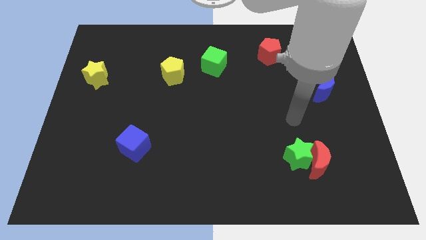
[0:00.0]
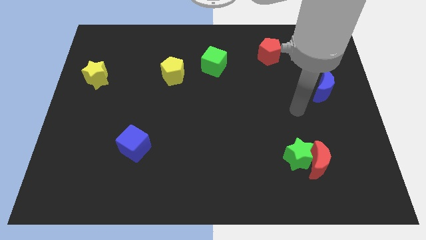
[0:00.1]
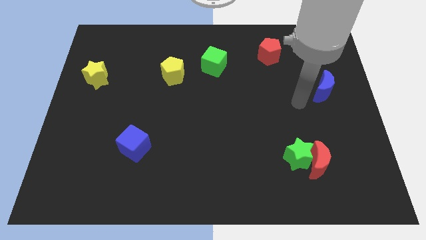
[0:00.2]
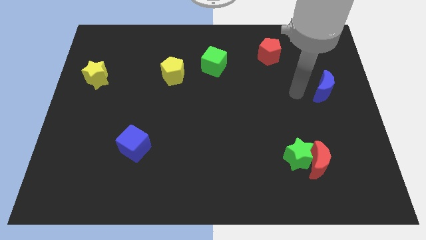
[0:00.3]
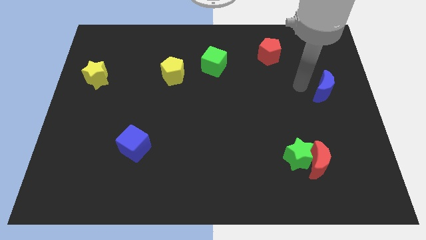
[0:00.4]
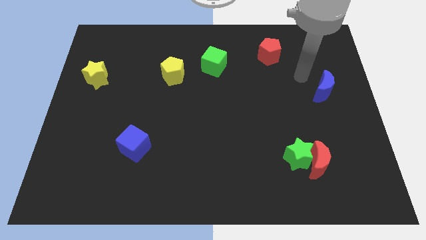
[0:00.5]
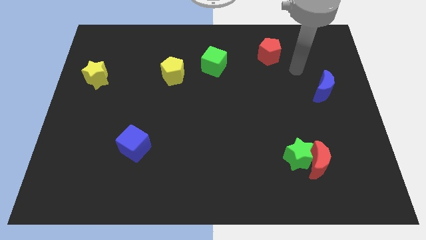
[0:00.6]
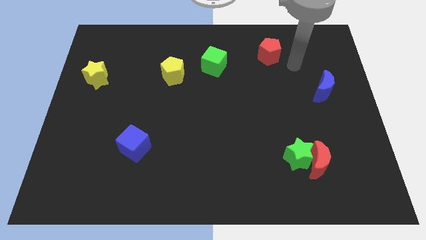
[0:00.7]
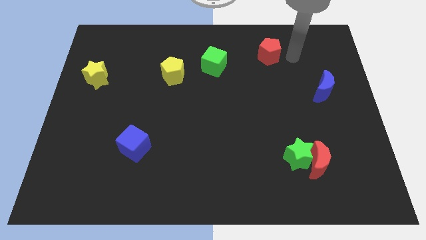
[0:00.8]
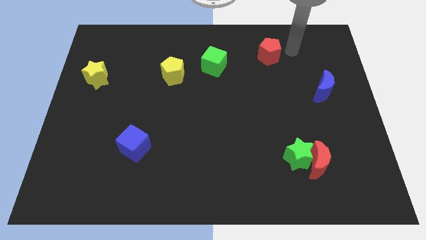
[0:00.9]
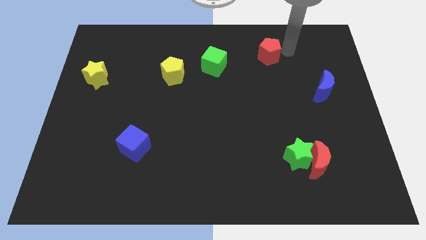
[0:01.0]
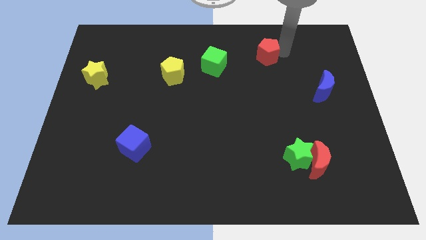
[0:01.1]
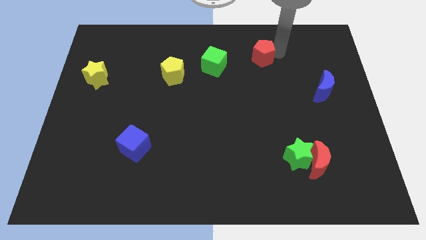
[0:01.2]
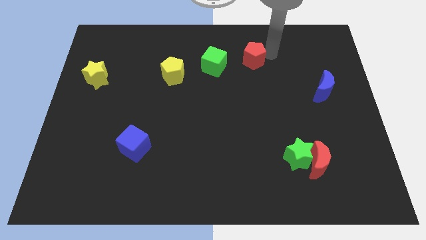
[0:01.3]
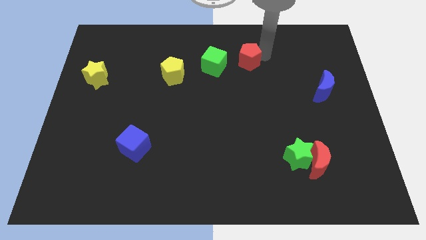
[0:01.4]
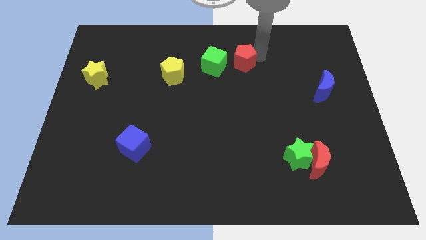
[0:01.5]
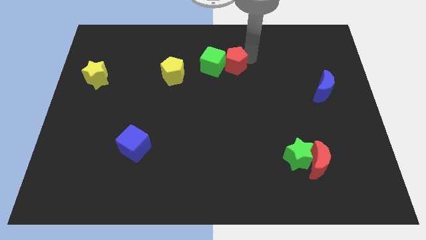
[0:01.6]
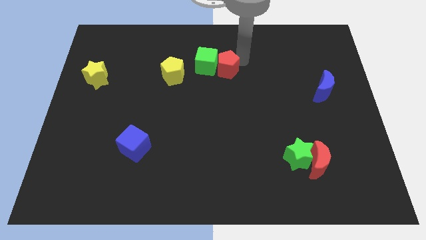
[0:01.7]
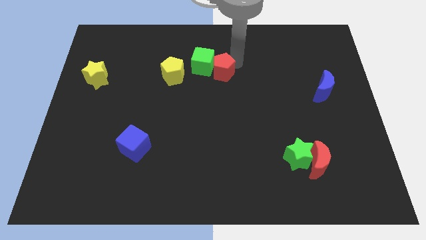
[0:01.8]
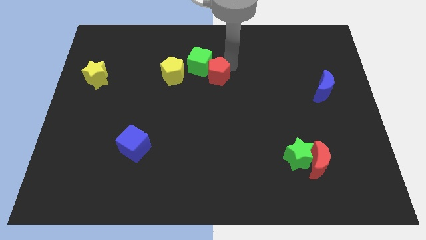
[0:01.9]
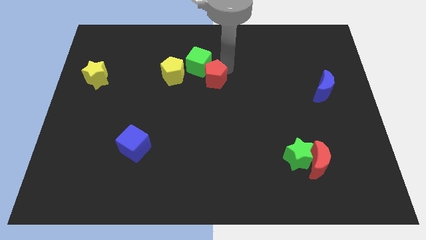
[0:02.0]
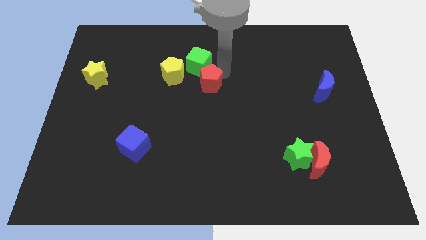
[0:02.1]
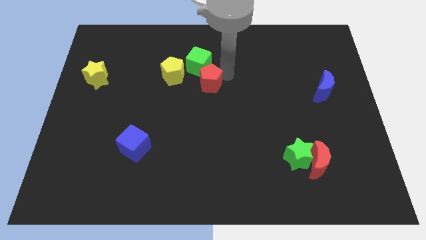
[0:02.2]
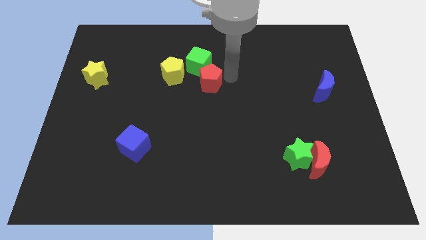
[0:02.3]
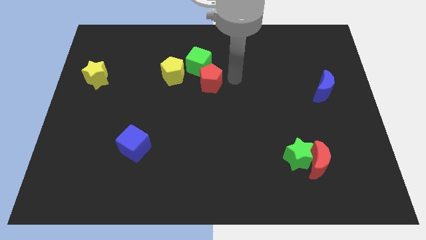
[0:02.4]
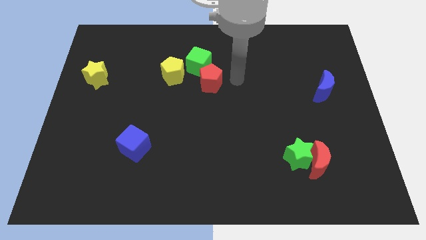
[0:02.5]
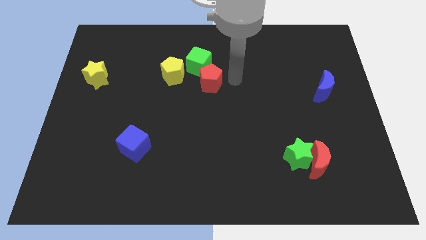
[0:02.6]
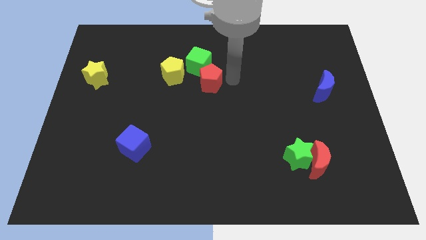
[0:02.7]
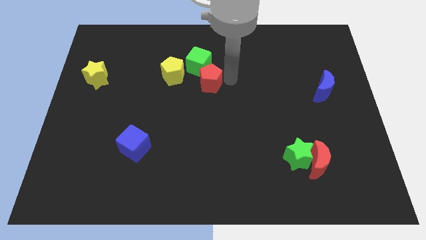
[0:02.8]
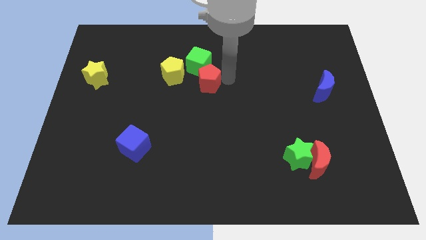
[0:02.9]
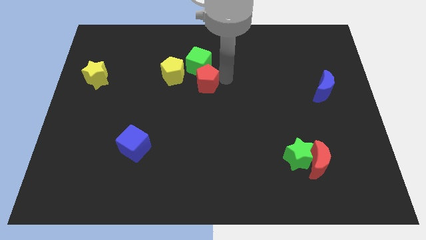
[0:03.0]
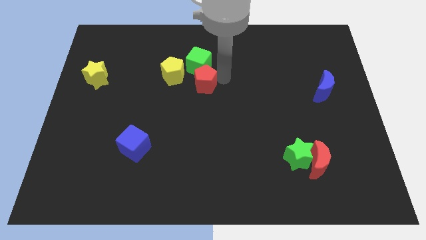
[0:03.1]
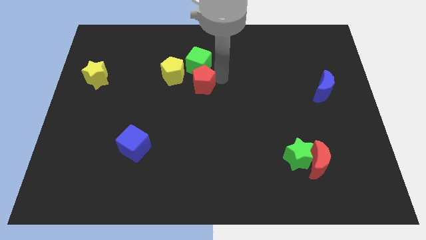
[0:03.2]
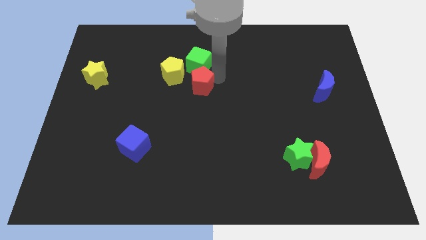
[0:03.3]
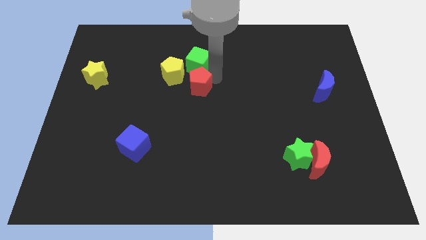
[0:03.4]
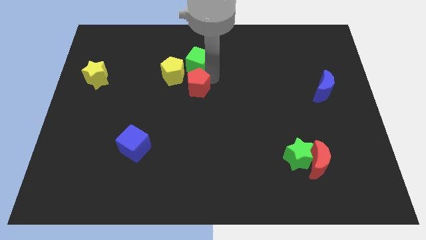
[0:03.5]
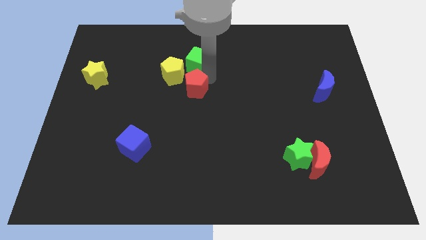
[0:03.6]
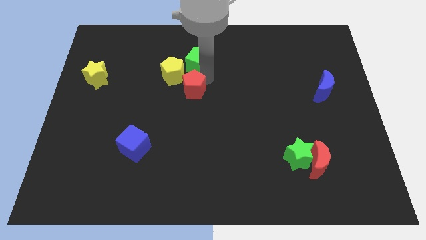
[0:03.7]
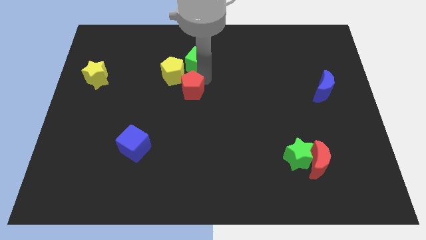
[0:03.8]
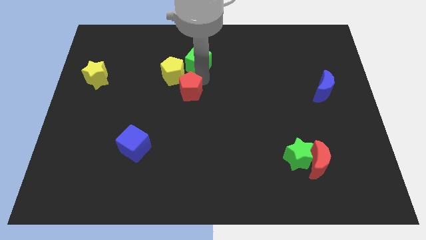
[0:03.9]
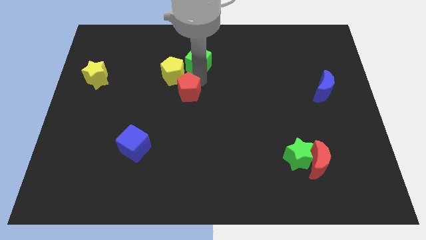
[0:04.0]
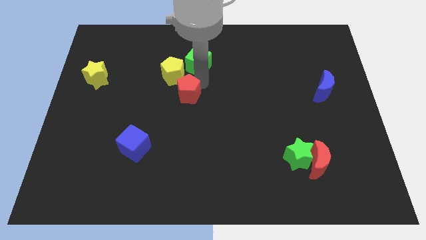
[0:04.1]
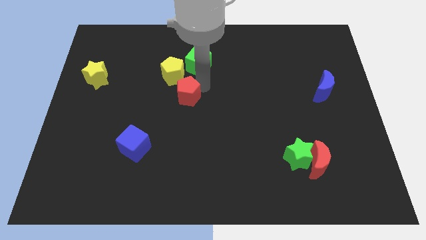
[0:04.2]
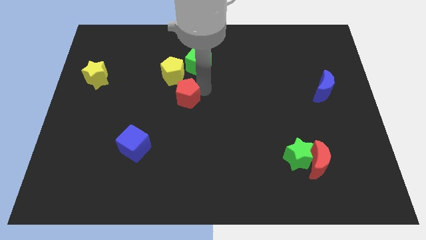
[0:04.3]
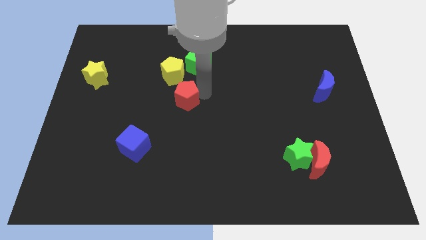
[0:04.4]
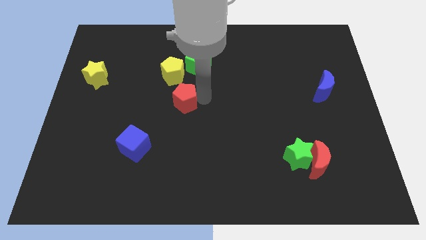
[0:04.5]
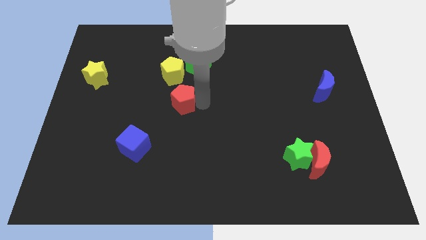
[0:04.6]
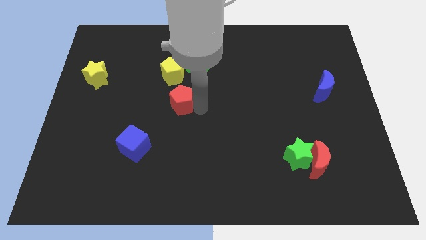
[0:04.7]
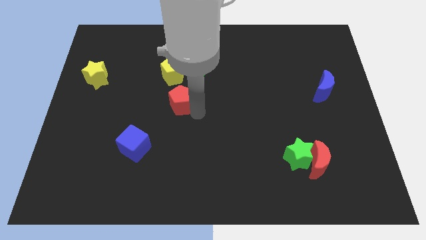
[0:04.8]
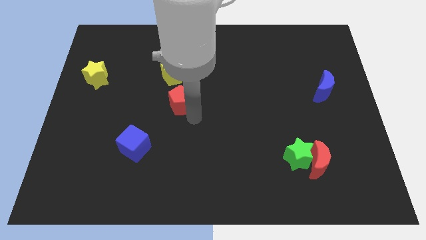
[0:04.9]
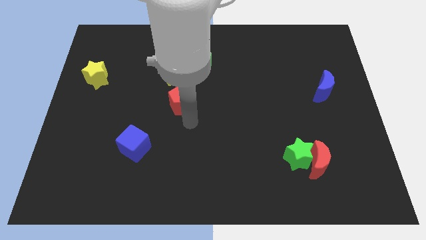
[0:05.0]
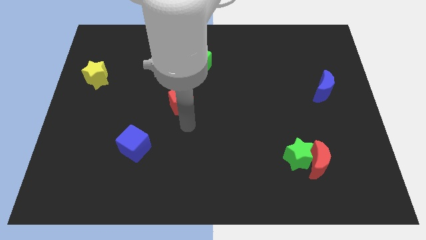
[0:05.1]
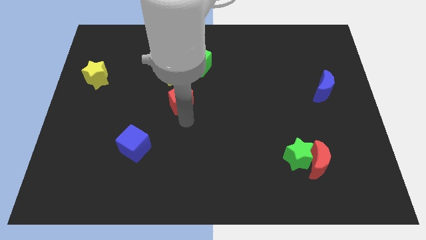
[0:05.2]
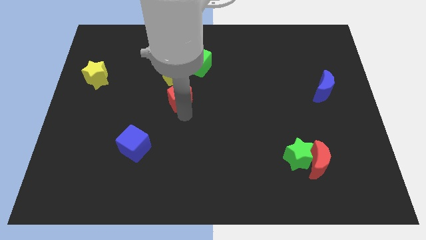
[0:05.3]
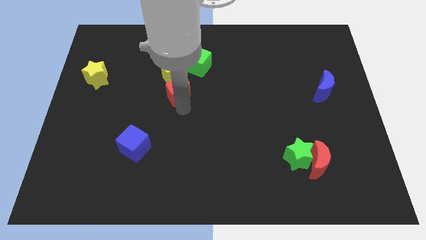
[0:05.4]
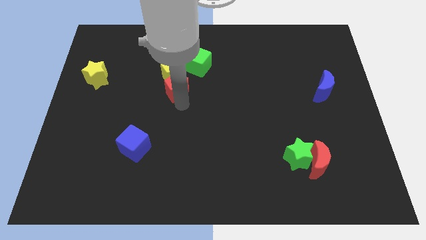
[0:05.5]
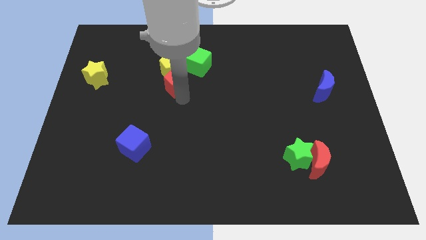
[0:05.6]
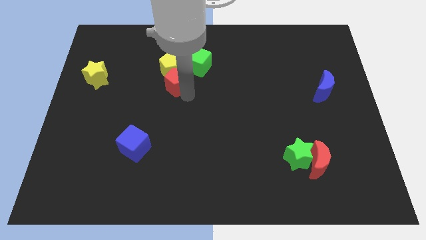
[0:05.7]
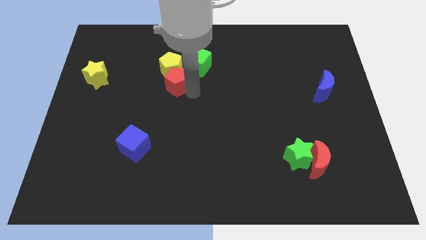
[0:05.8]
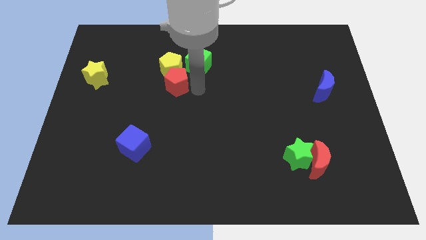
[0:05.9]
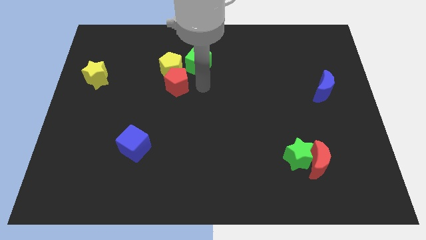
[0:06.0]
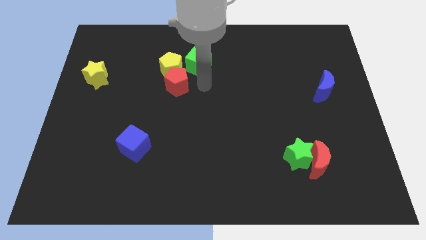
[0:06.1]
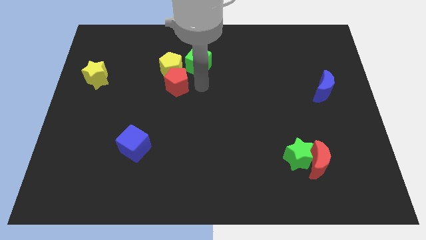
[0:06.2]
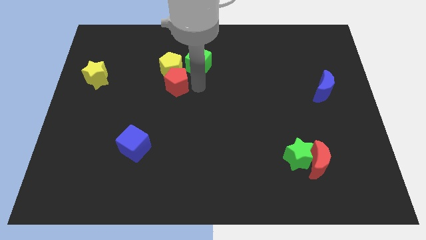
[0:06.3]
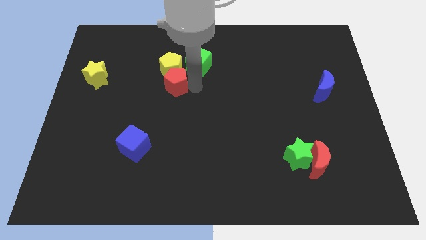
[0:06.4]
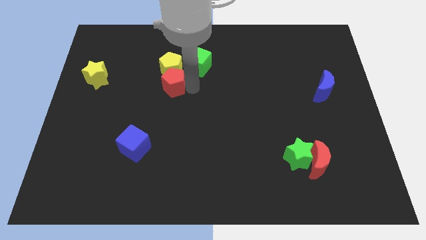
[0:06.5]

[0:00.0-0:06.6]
put the red pentagon to the bottom left side of the yellow pentagon
